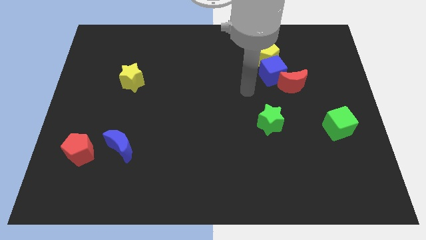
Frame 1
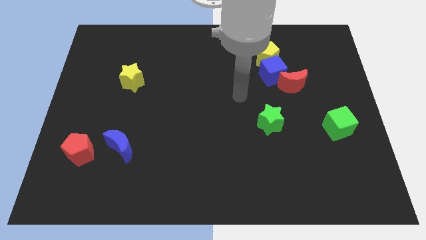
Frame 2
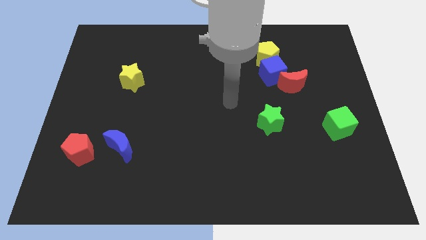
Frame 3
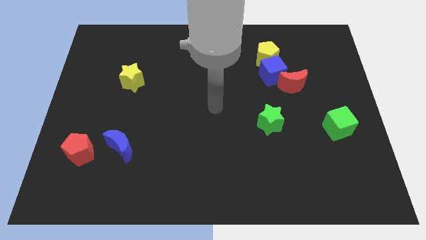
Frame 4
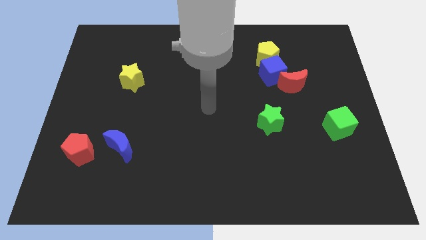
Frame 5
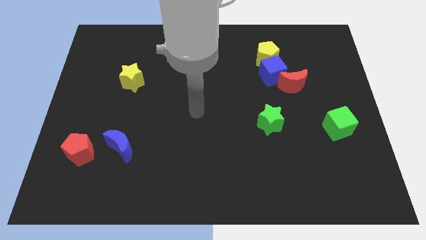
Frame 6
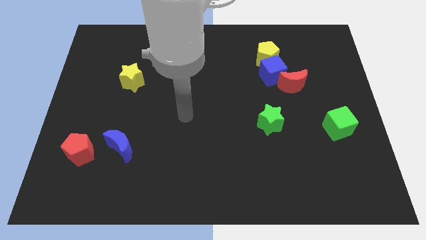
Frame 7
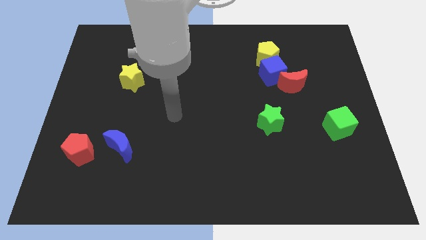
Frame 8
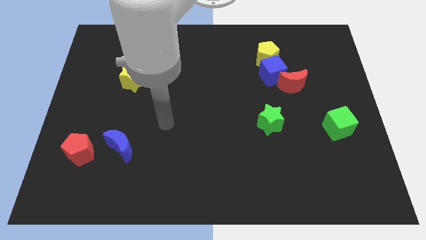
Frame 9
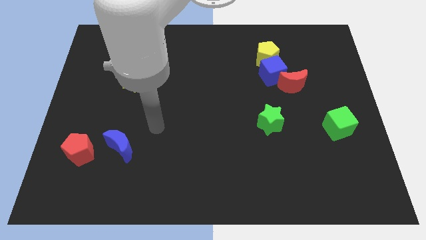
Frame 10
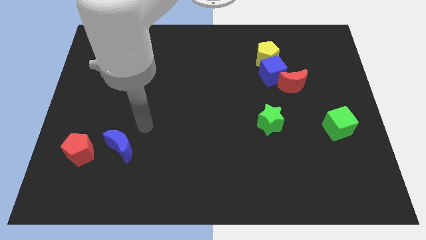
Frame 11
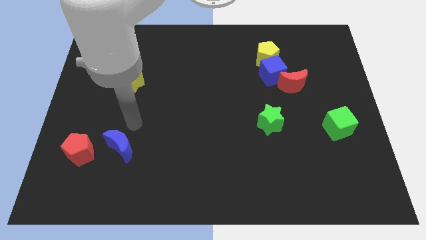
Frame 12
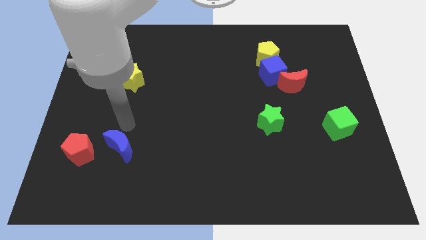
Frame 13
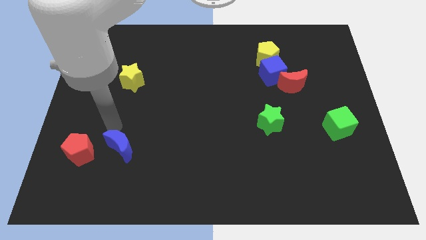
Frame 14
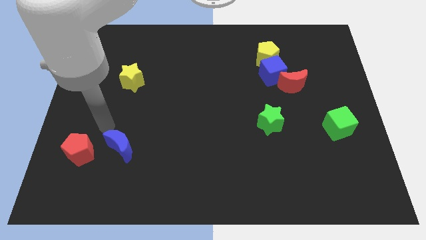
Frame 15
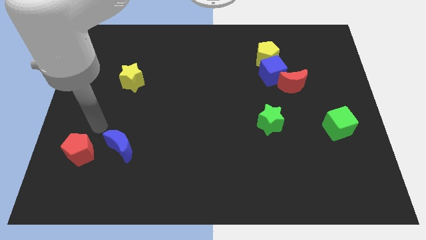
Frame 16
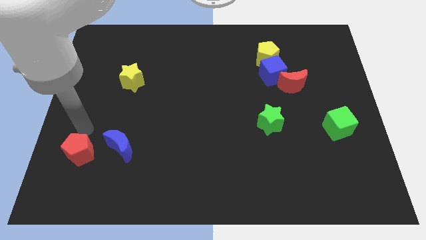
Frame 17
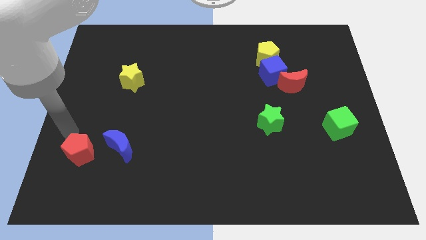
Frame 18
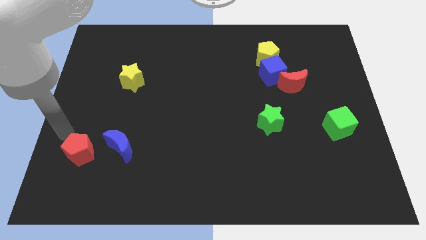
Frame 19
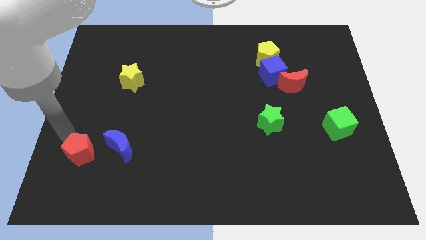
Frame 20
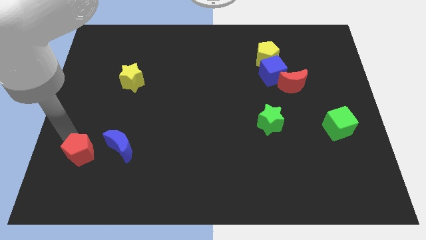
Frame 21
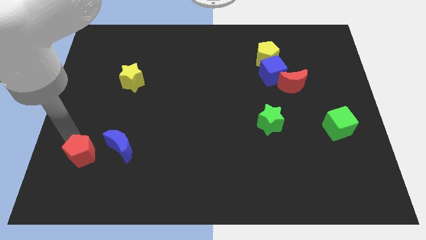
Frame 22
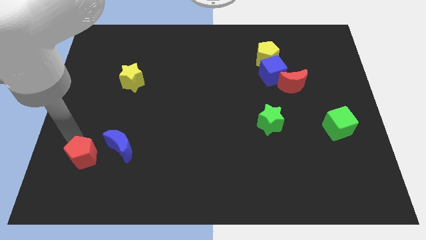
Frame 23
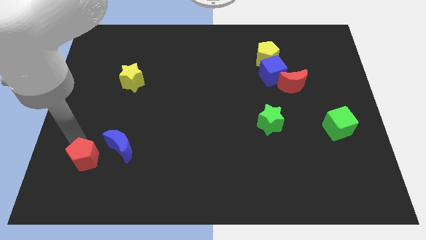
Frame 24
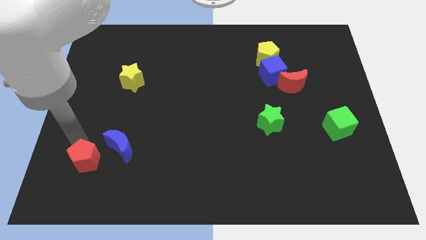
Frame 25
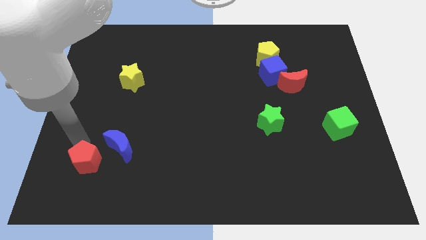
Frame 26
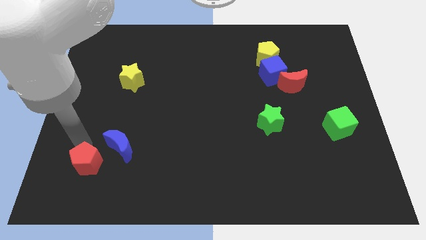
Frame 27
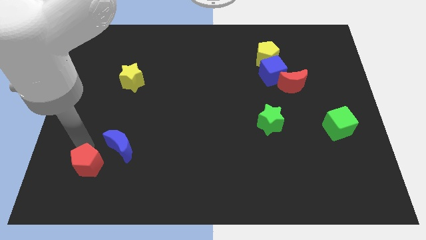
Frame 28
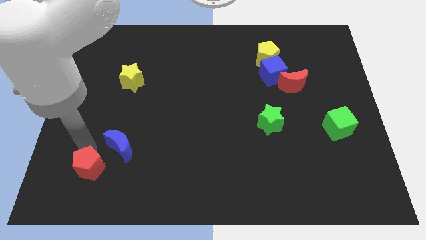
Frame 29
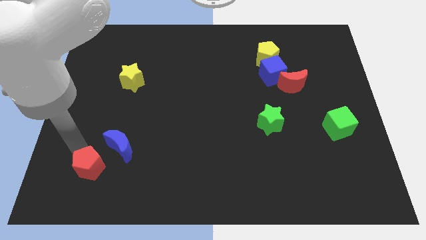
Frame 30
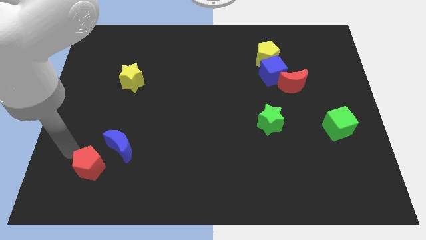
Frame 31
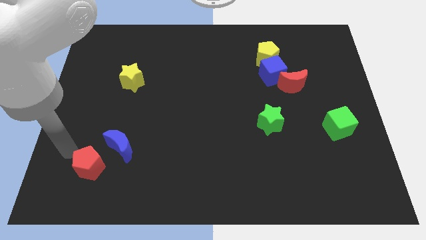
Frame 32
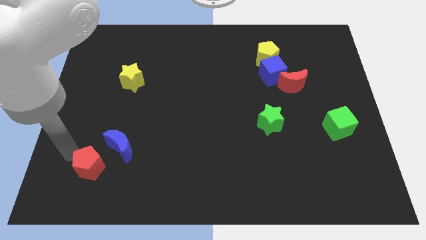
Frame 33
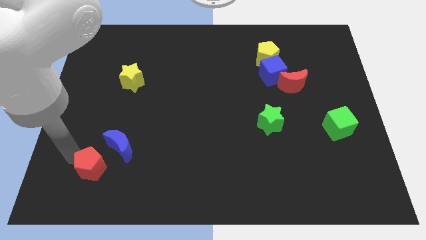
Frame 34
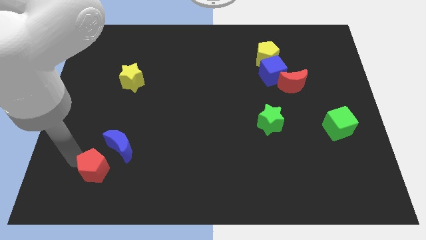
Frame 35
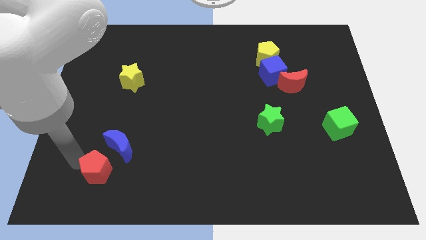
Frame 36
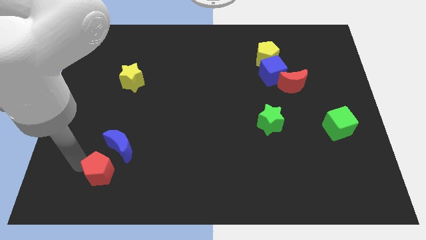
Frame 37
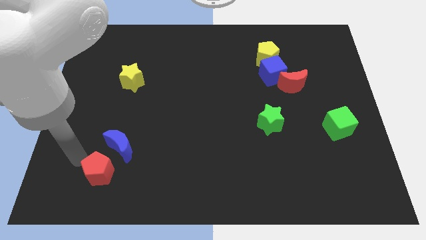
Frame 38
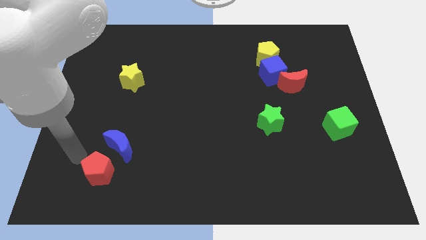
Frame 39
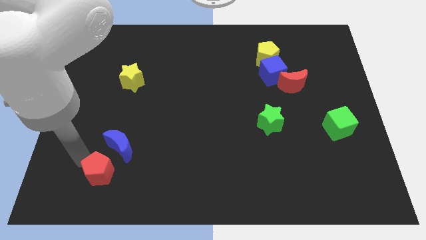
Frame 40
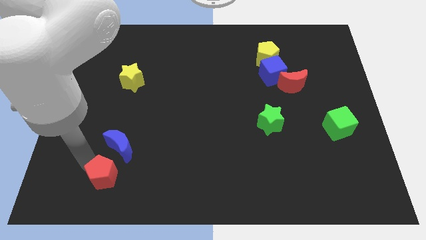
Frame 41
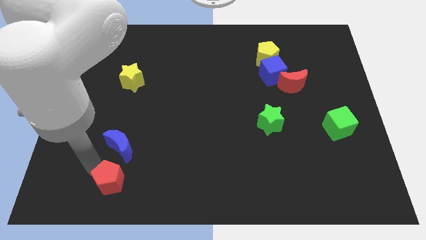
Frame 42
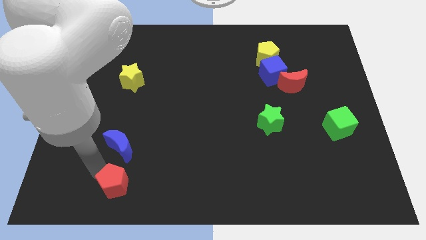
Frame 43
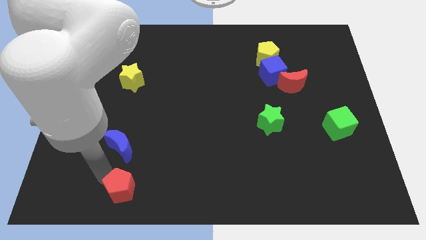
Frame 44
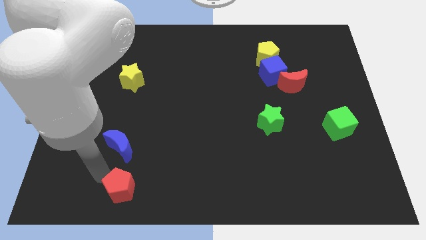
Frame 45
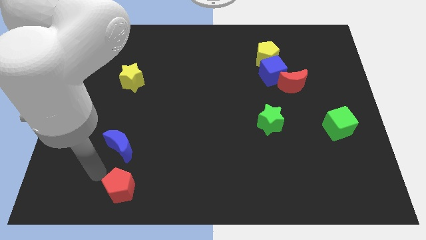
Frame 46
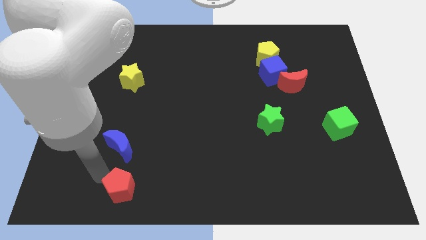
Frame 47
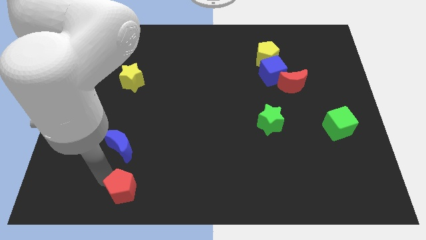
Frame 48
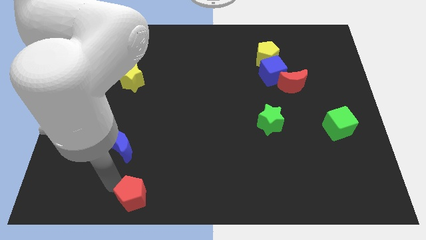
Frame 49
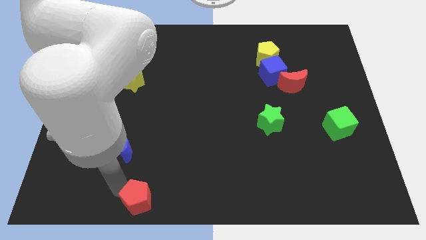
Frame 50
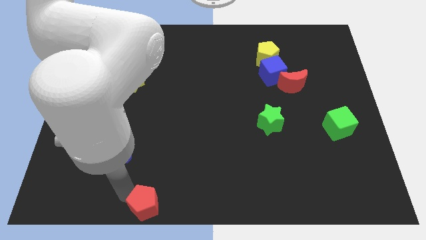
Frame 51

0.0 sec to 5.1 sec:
slide the red pentagon to the bottom

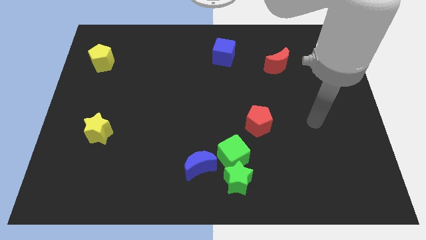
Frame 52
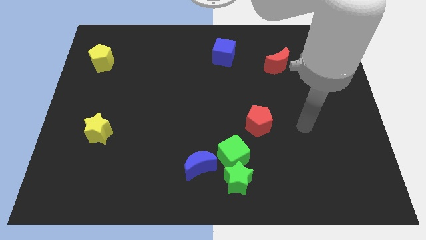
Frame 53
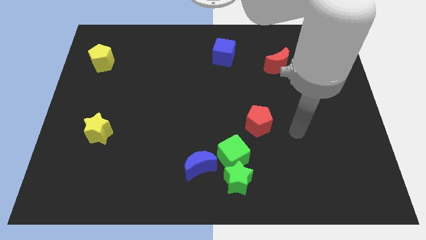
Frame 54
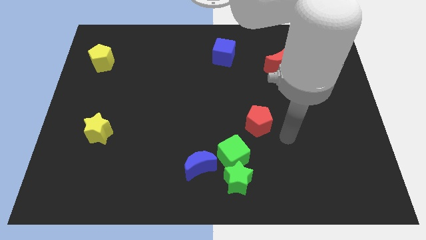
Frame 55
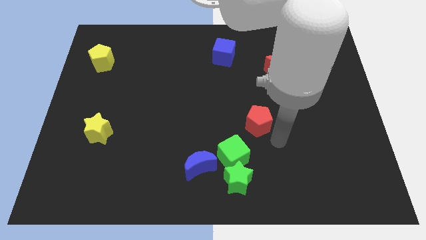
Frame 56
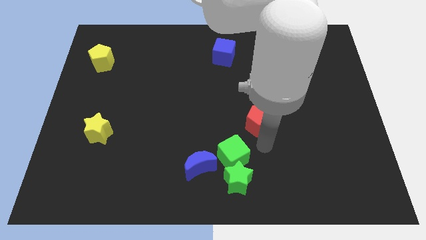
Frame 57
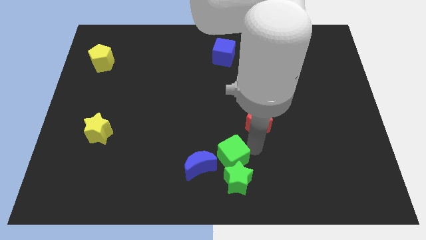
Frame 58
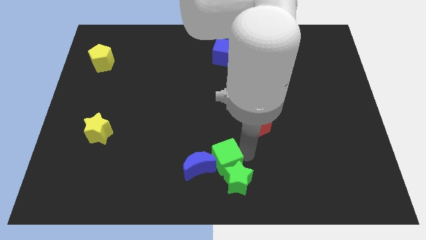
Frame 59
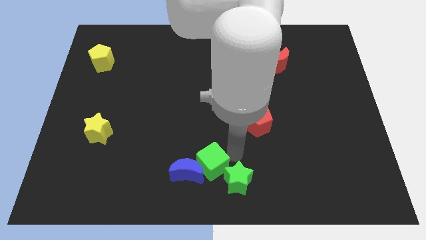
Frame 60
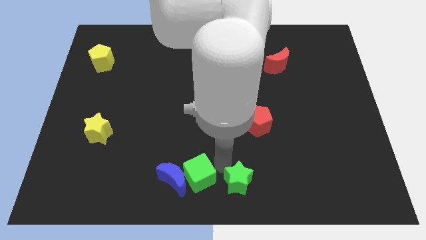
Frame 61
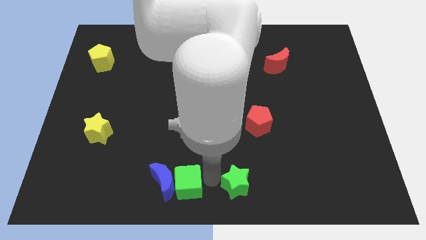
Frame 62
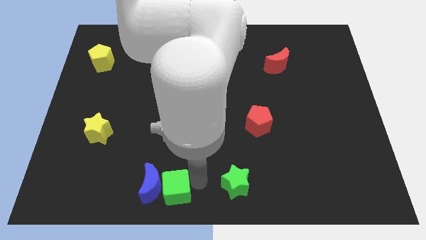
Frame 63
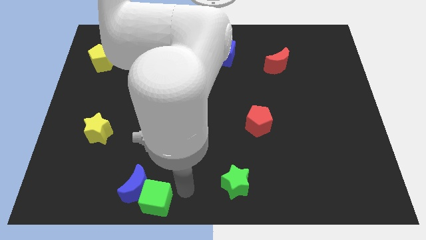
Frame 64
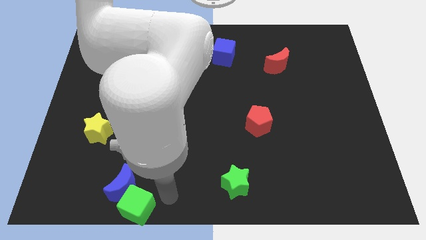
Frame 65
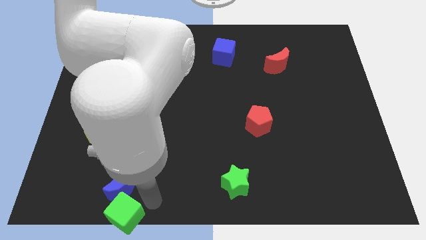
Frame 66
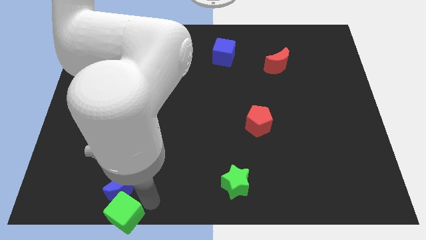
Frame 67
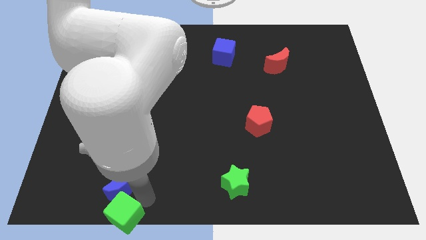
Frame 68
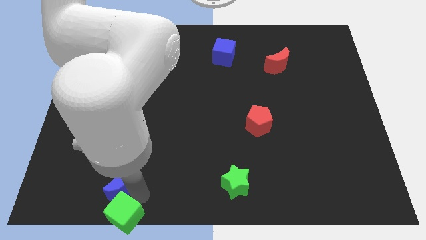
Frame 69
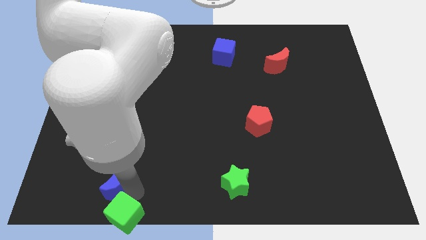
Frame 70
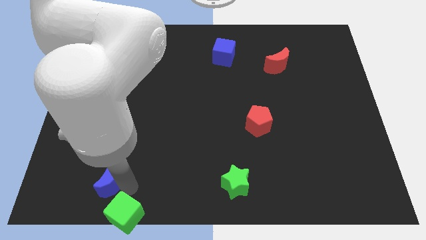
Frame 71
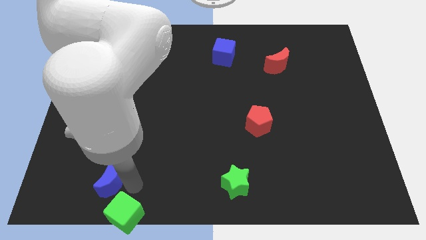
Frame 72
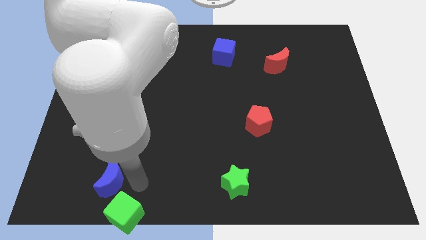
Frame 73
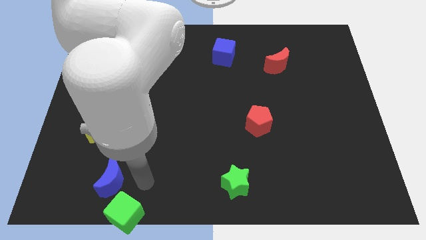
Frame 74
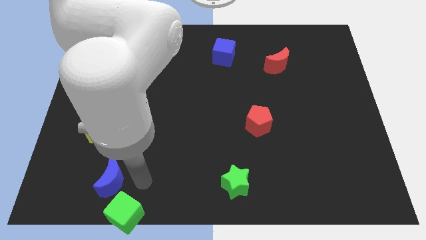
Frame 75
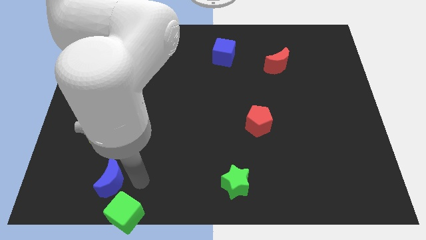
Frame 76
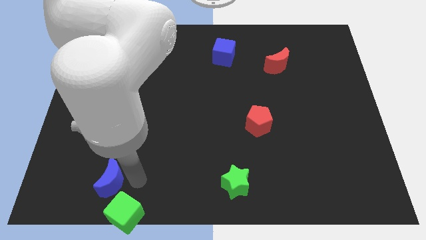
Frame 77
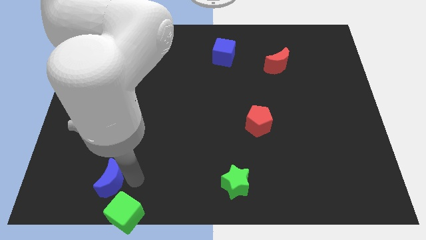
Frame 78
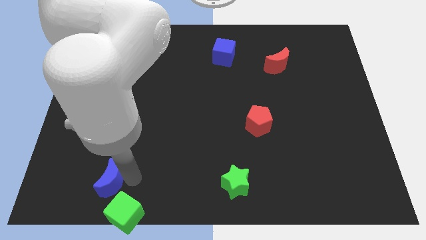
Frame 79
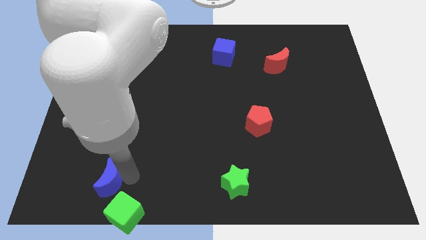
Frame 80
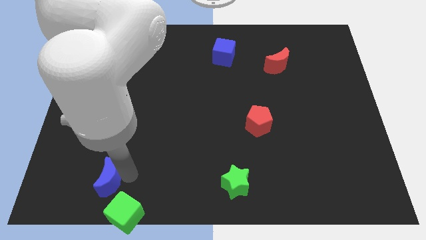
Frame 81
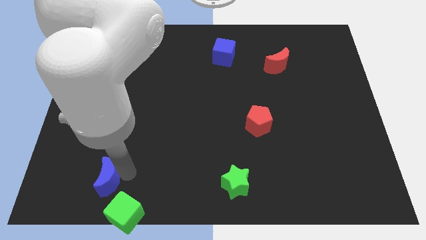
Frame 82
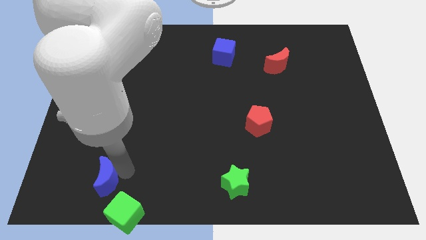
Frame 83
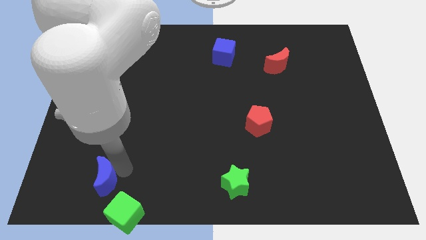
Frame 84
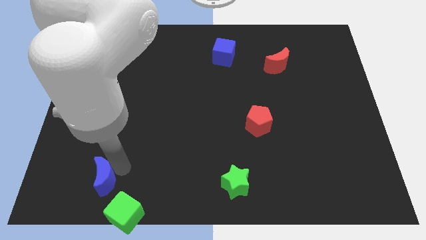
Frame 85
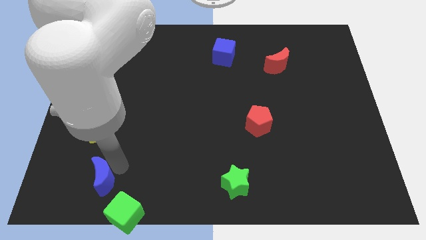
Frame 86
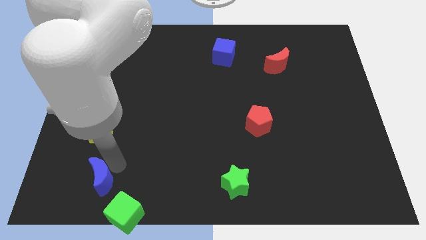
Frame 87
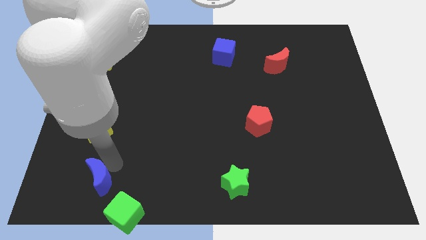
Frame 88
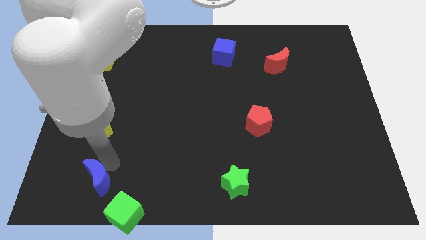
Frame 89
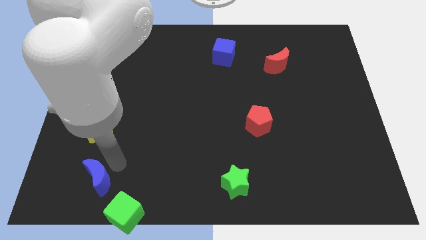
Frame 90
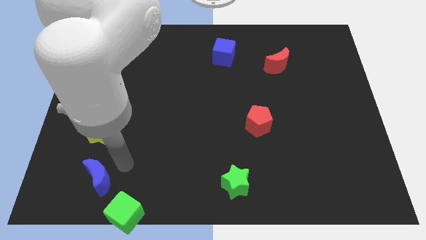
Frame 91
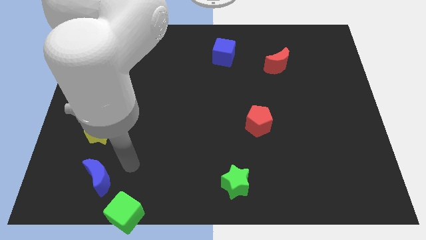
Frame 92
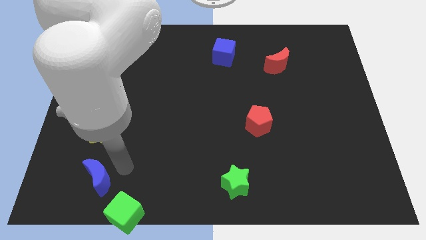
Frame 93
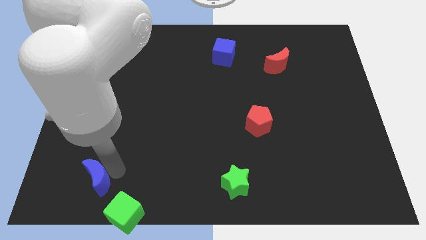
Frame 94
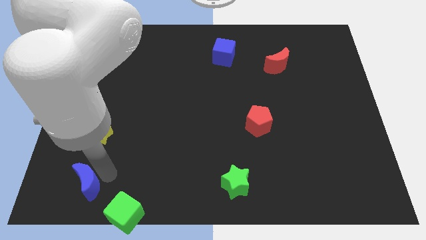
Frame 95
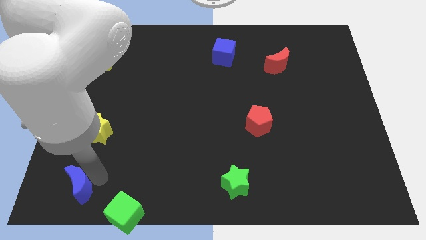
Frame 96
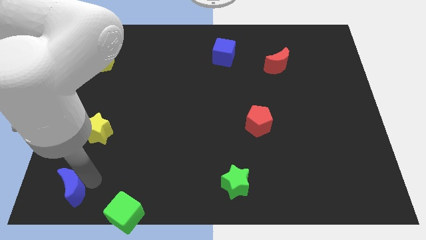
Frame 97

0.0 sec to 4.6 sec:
slide the blue moon to the bottom left of the board
